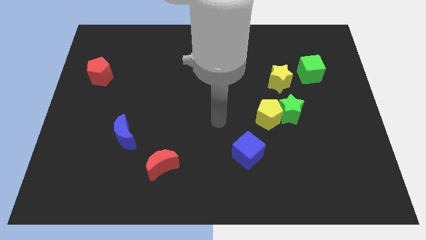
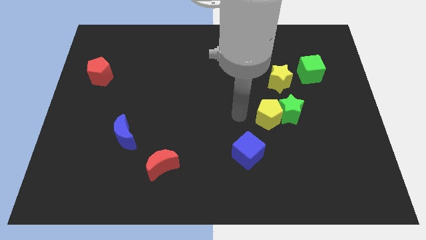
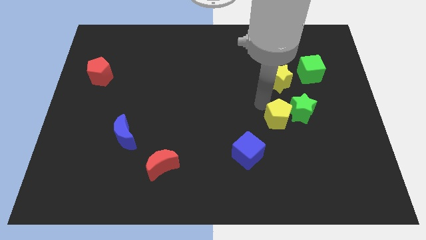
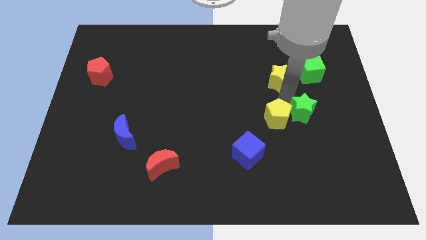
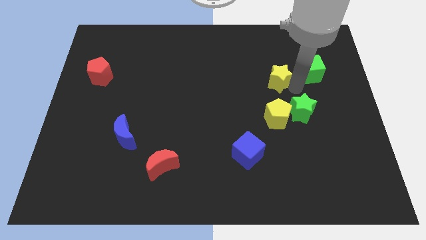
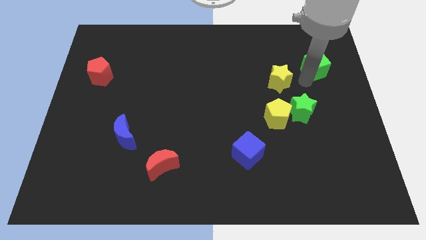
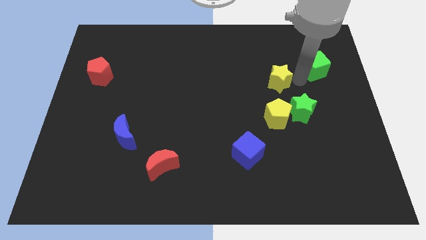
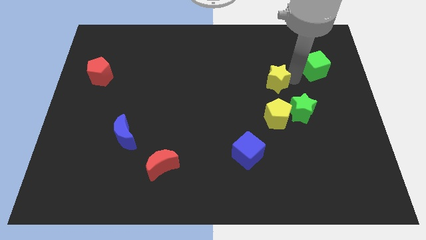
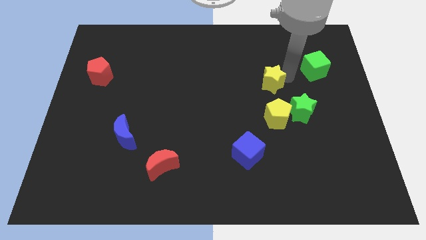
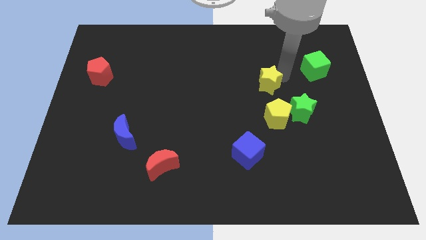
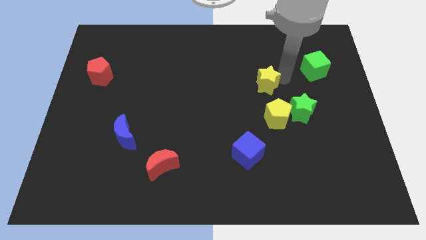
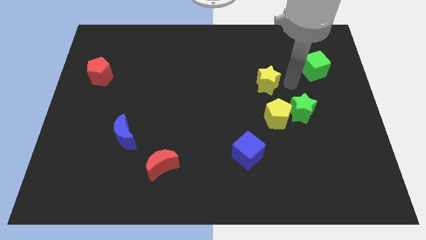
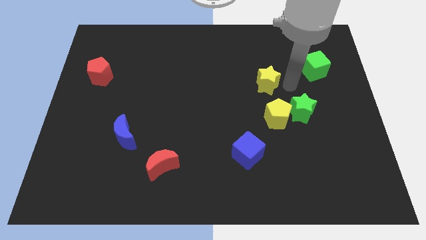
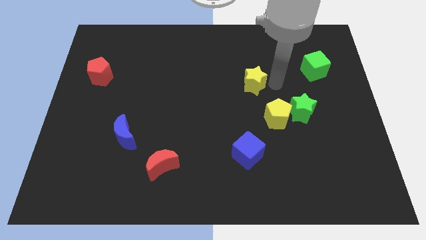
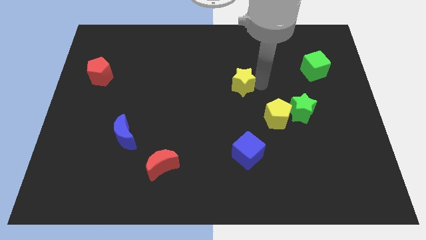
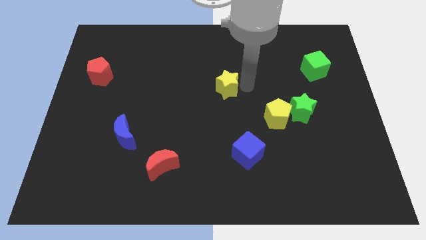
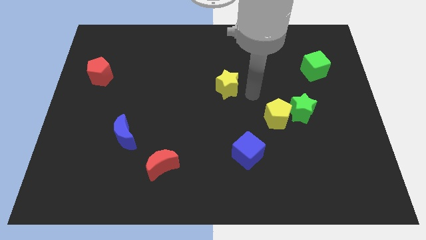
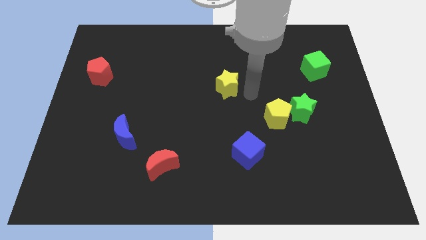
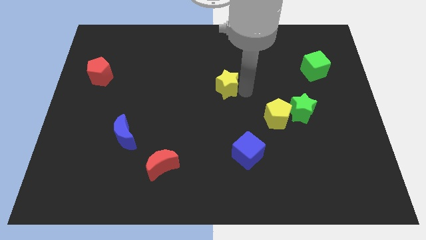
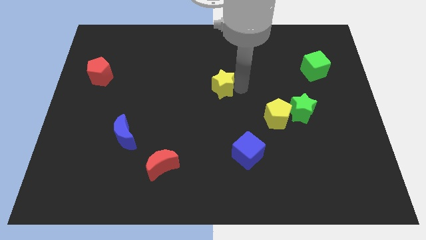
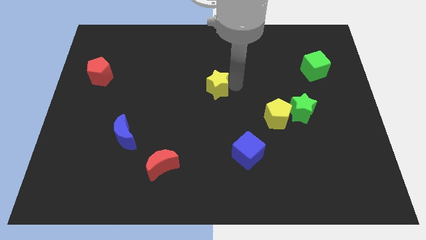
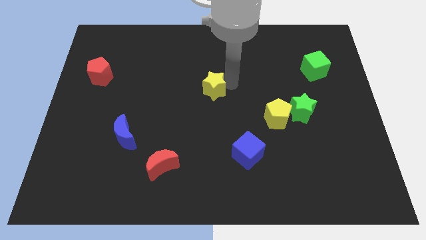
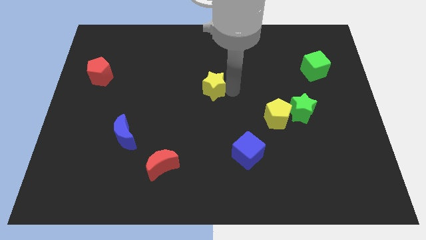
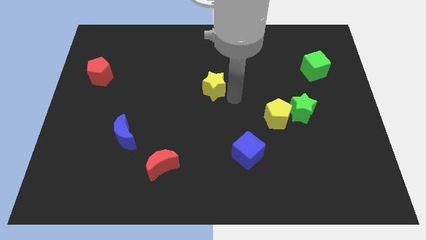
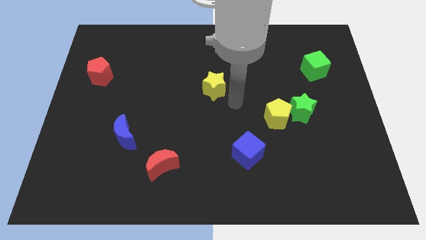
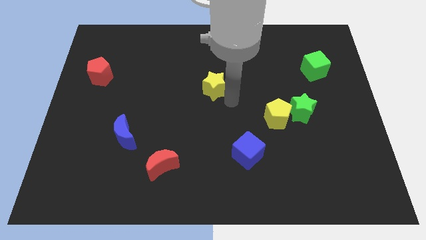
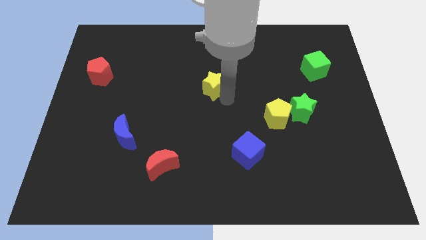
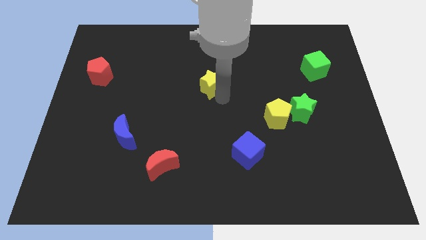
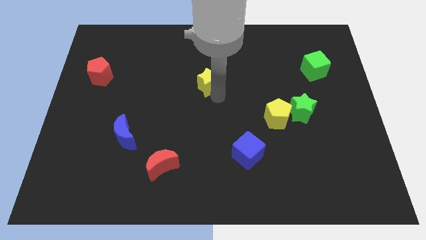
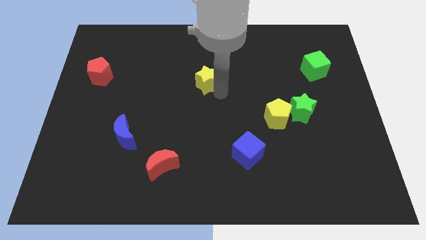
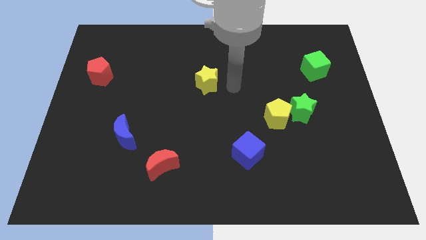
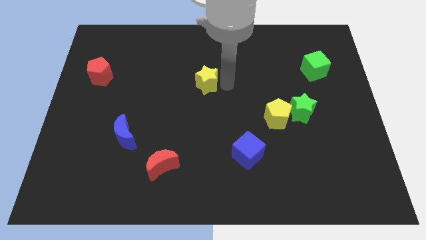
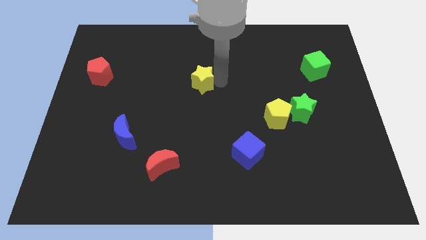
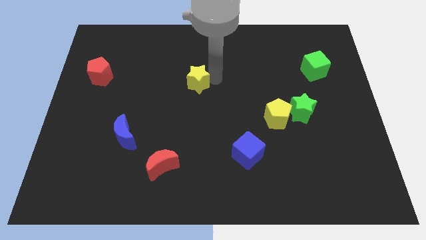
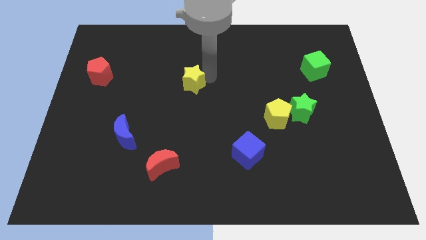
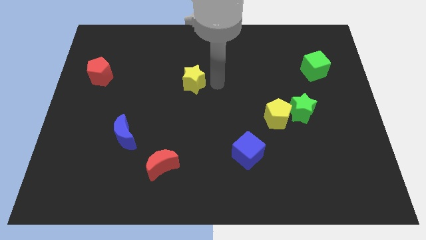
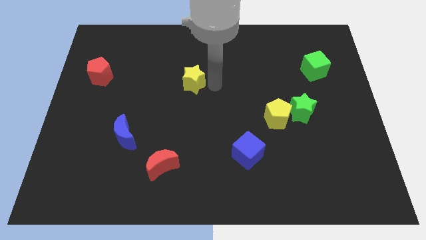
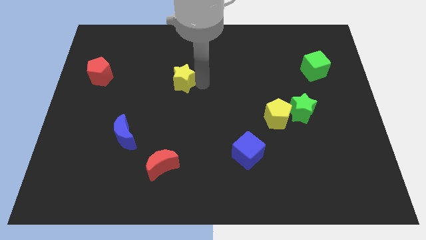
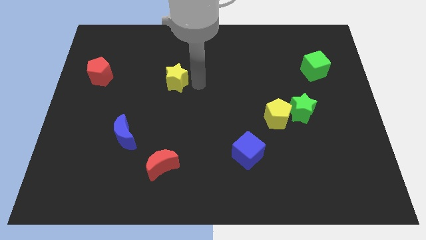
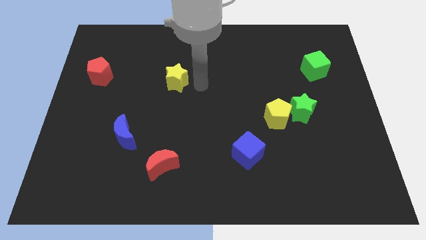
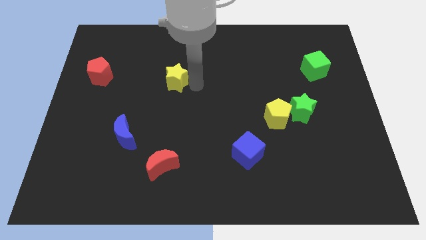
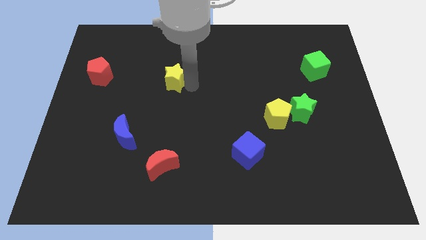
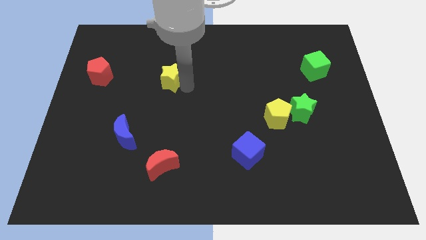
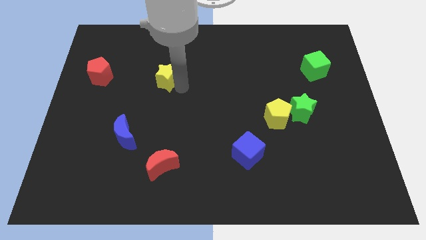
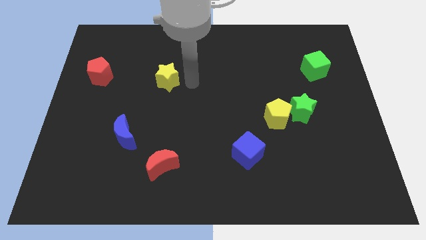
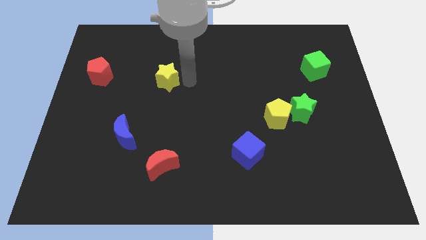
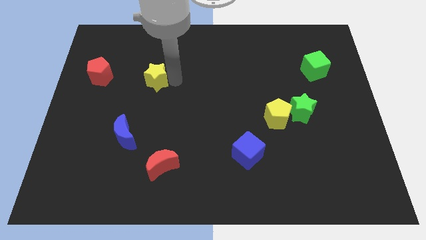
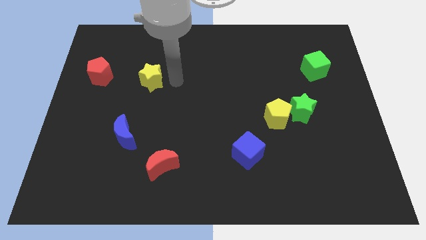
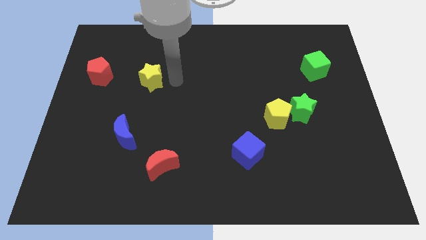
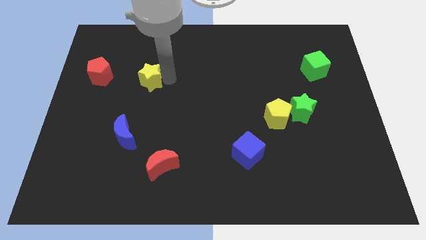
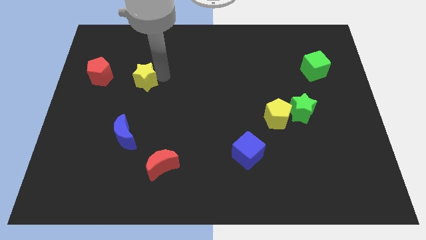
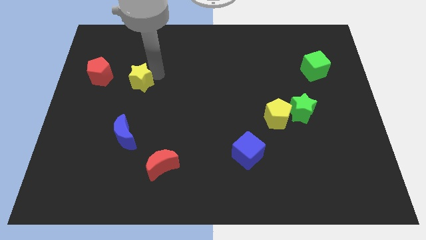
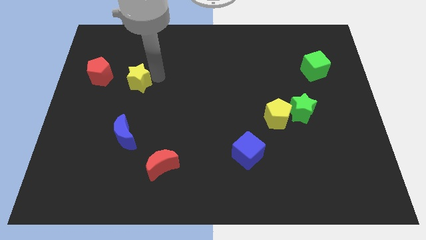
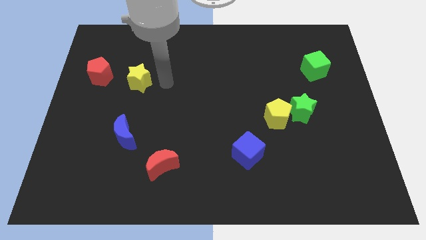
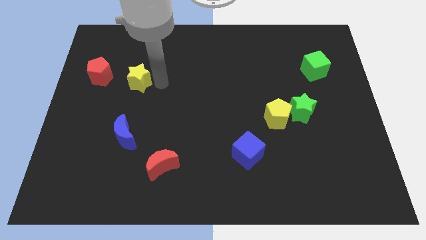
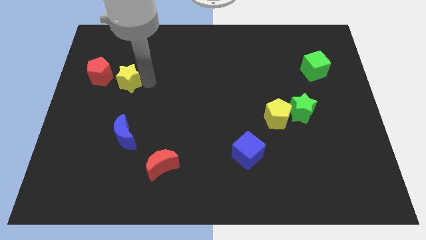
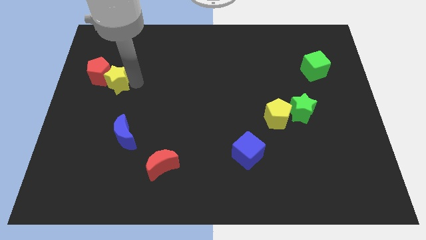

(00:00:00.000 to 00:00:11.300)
push the yellow star towards the red pentagon

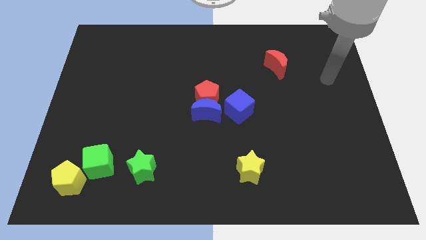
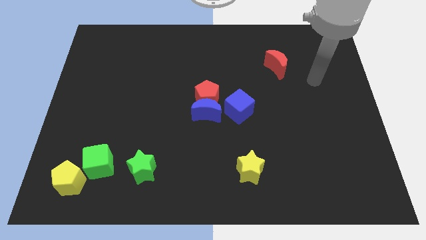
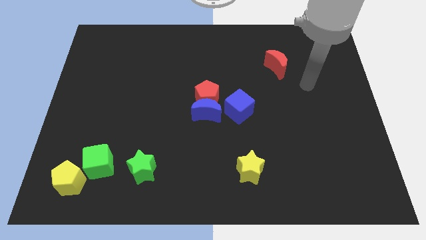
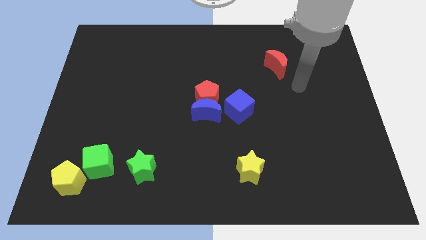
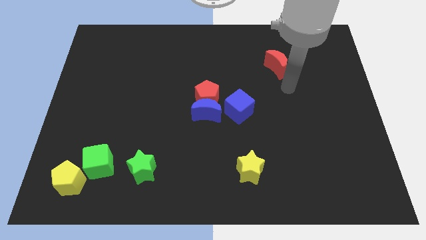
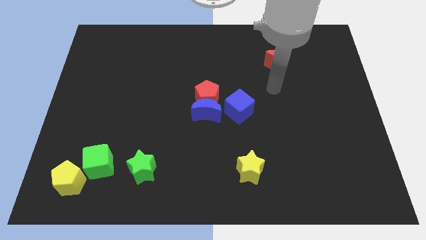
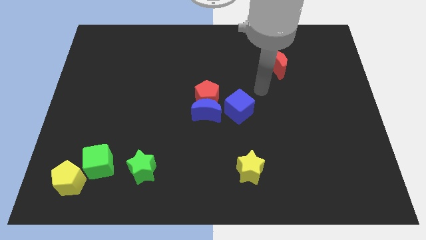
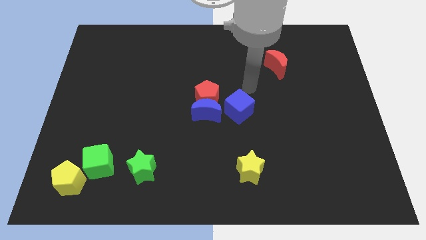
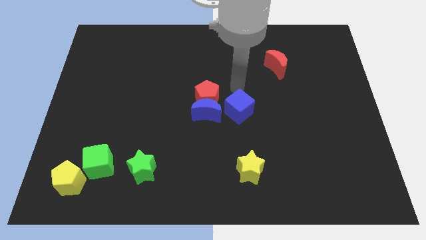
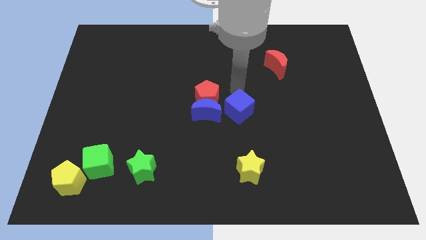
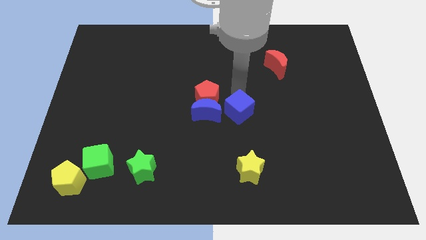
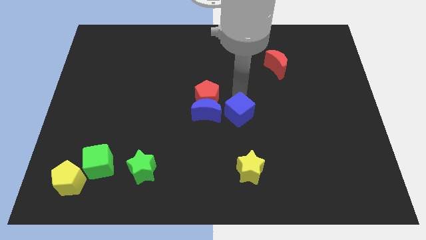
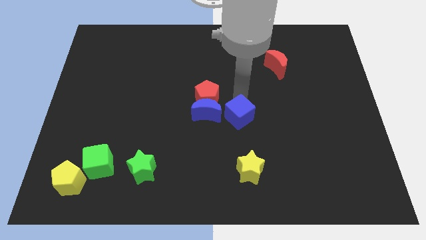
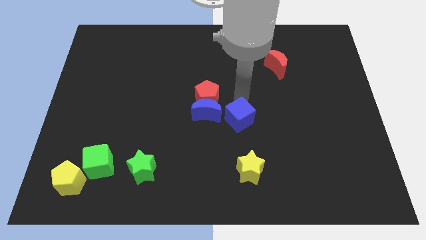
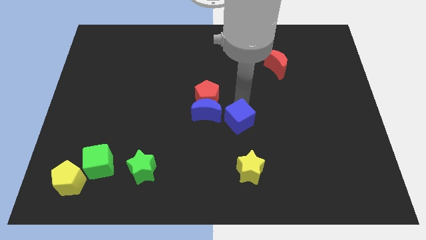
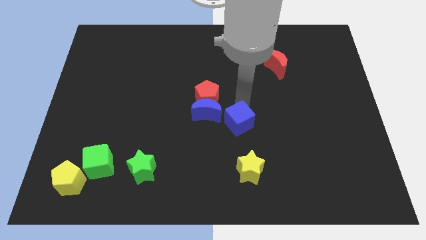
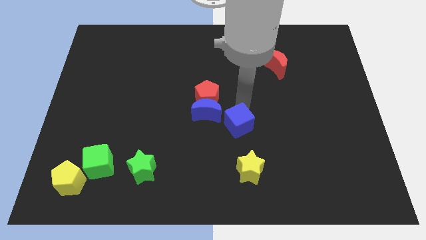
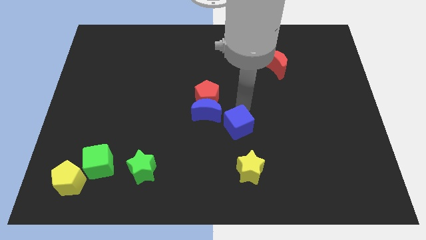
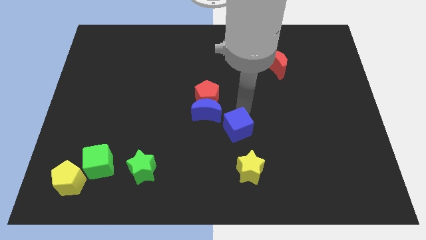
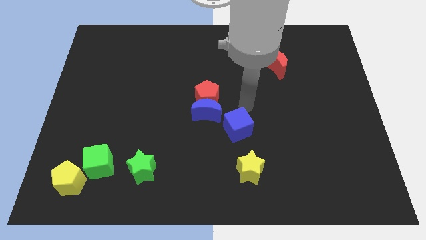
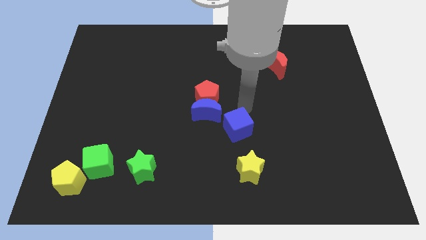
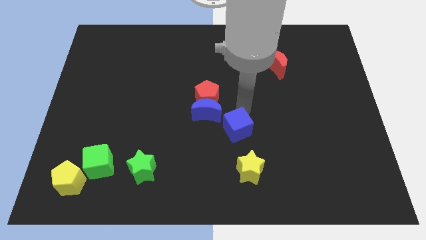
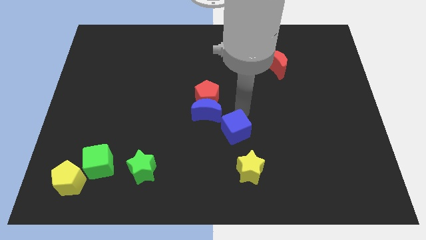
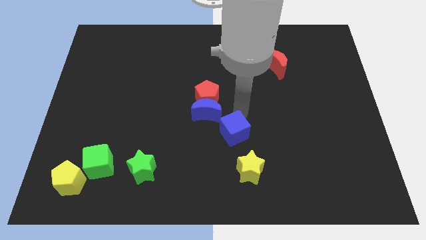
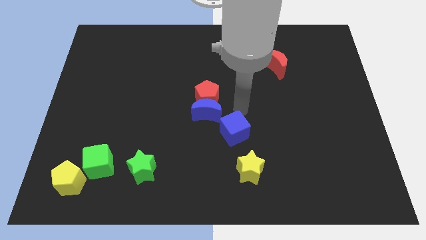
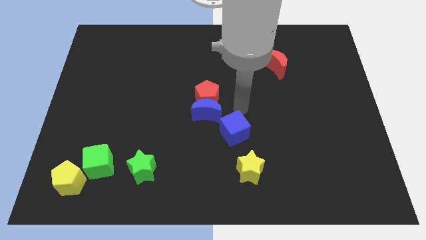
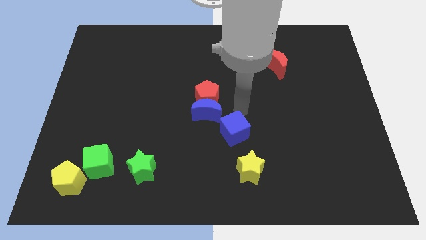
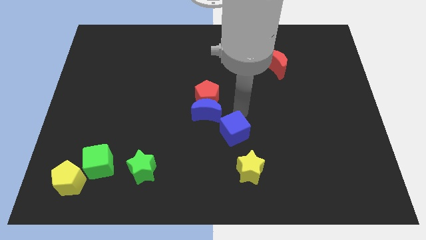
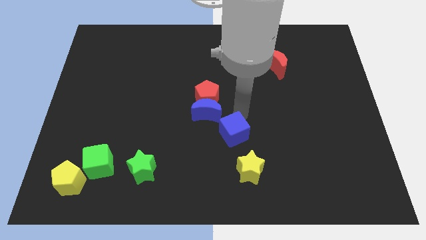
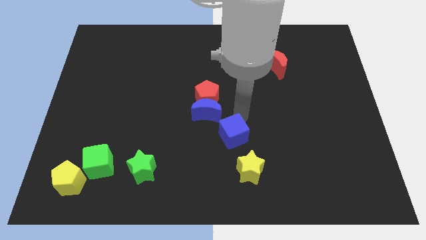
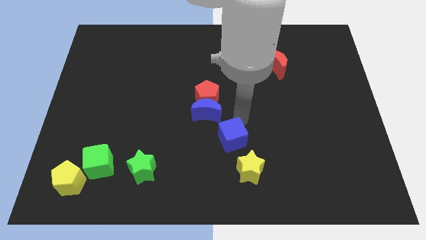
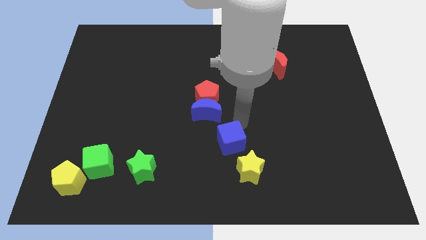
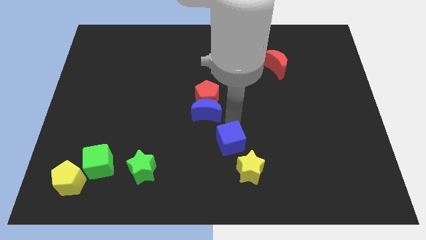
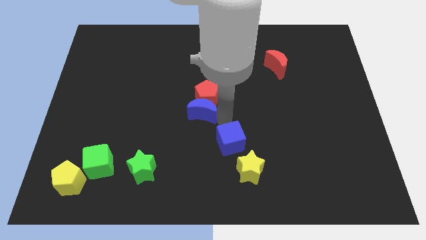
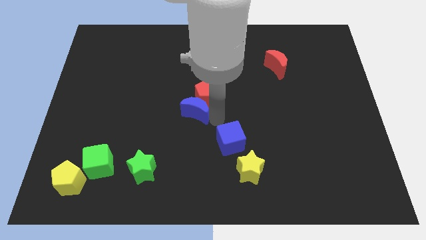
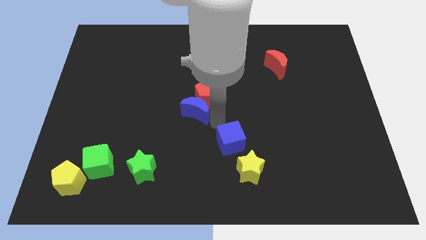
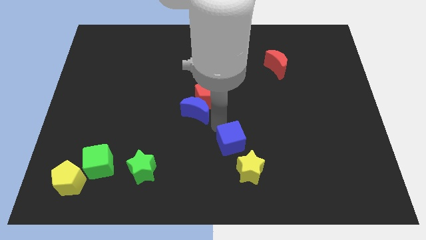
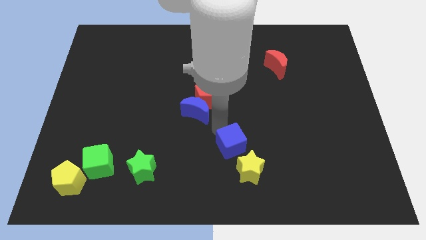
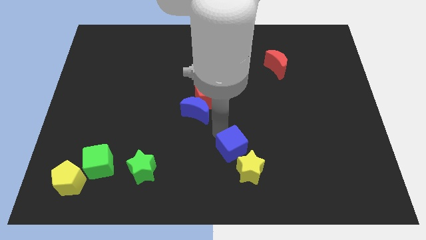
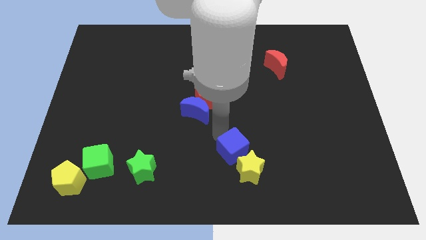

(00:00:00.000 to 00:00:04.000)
put the blue cube to the yellow star
